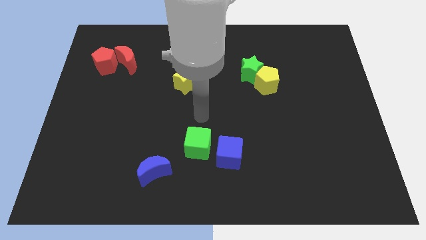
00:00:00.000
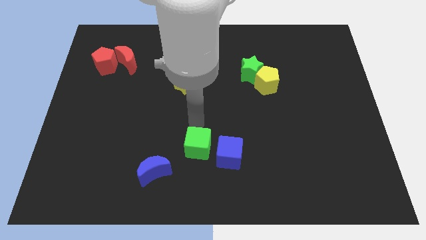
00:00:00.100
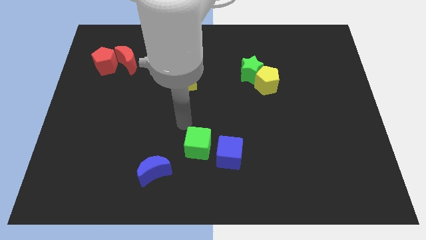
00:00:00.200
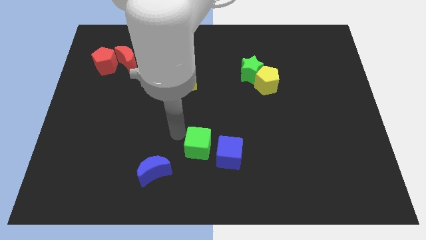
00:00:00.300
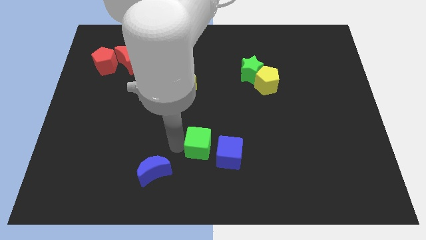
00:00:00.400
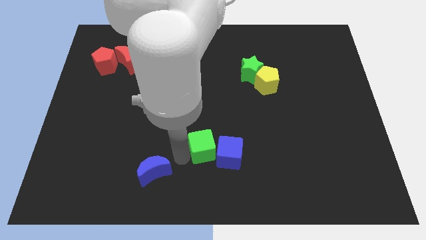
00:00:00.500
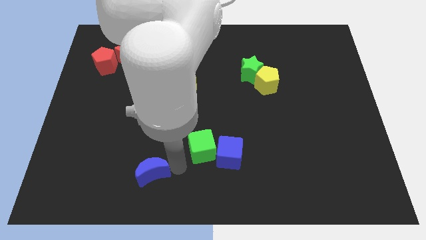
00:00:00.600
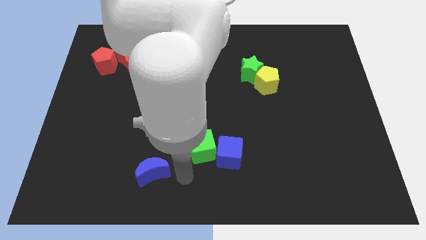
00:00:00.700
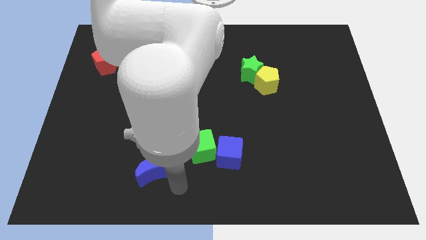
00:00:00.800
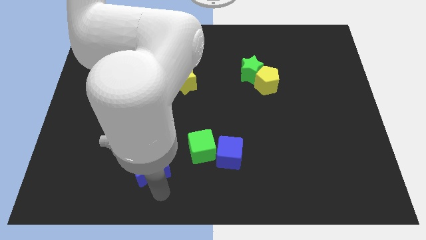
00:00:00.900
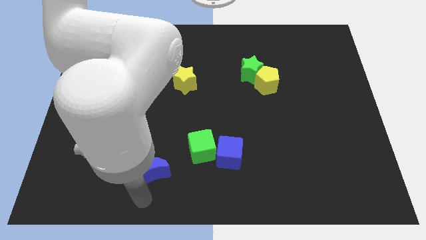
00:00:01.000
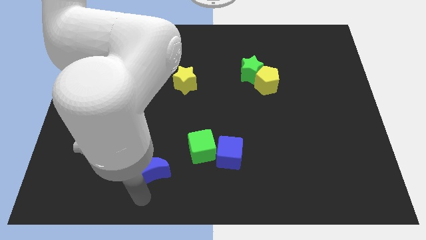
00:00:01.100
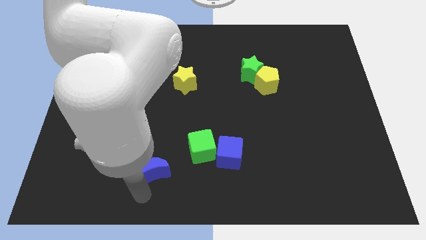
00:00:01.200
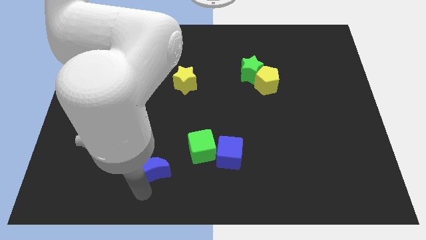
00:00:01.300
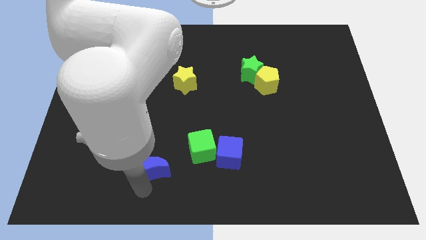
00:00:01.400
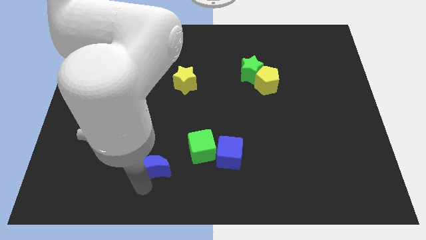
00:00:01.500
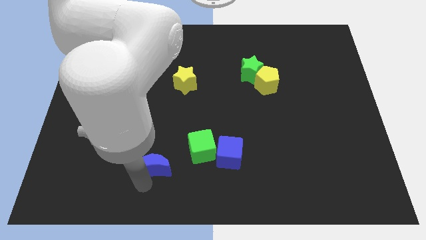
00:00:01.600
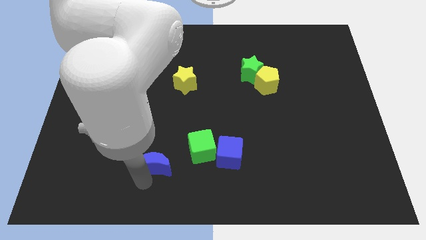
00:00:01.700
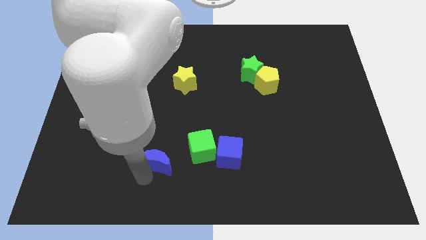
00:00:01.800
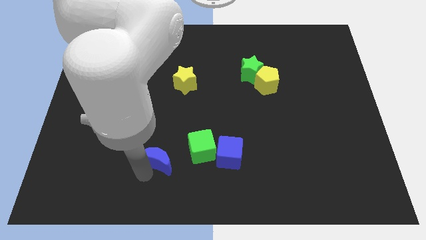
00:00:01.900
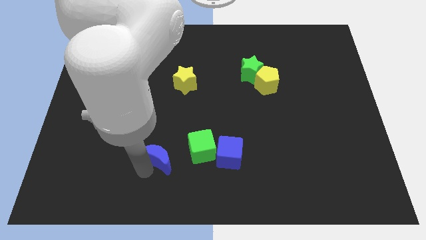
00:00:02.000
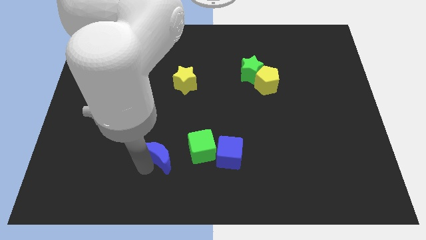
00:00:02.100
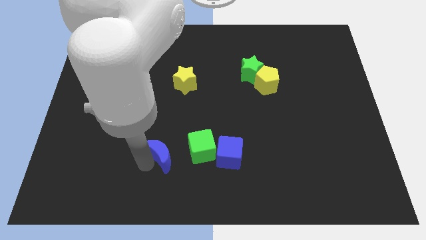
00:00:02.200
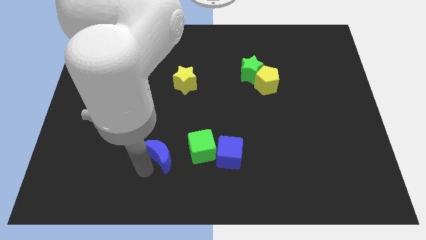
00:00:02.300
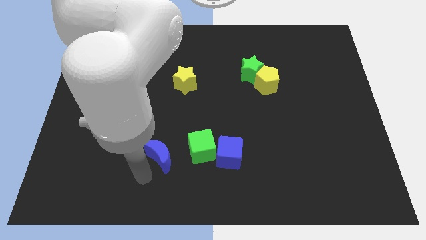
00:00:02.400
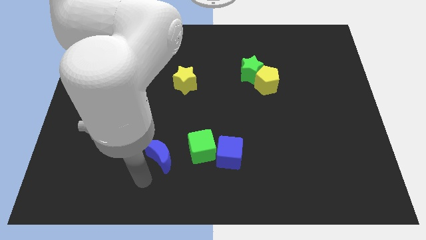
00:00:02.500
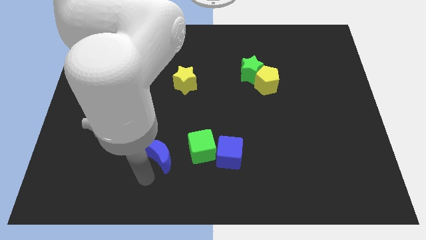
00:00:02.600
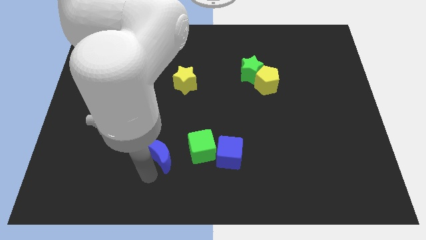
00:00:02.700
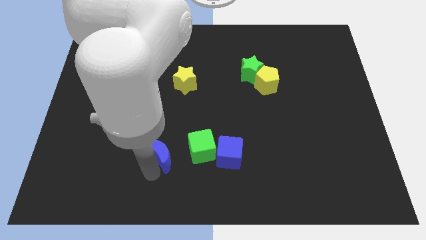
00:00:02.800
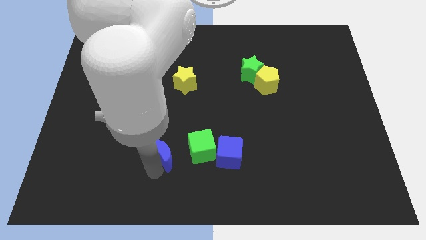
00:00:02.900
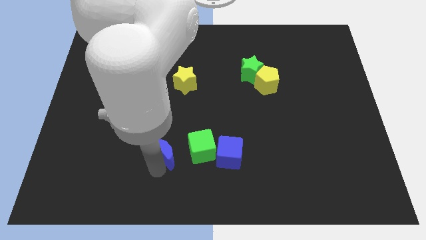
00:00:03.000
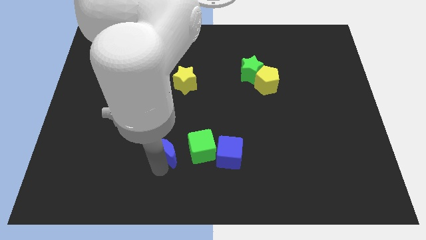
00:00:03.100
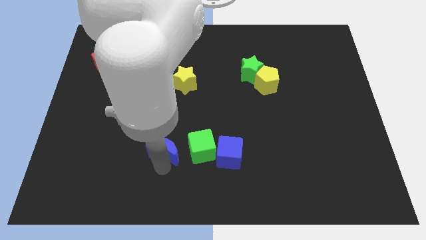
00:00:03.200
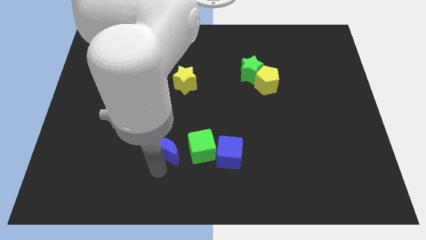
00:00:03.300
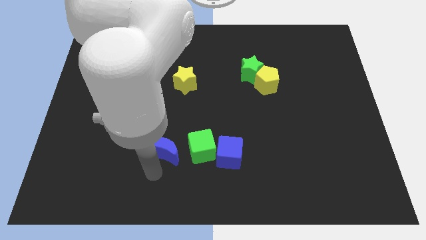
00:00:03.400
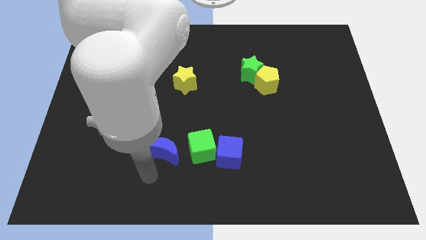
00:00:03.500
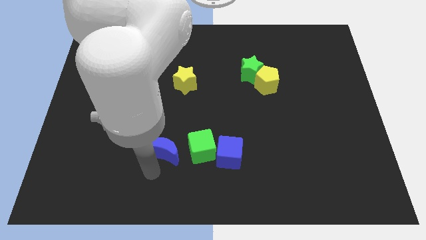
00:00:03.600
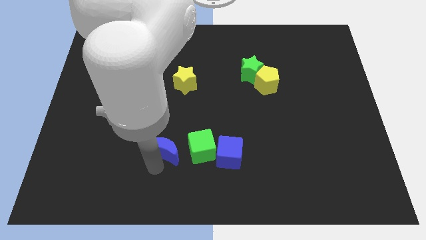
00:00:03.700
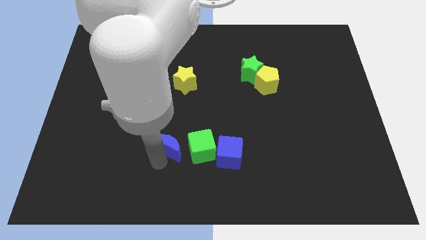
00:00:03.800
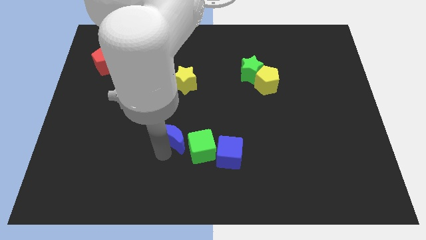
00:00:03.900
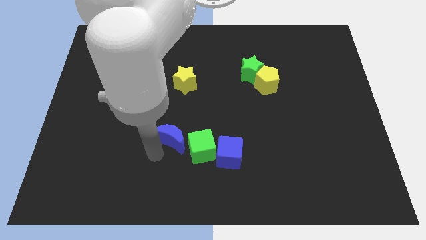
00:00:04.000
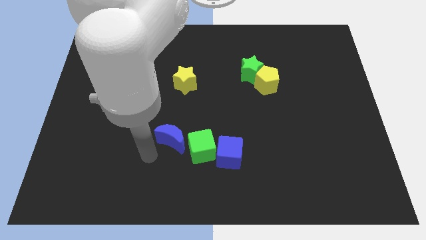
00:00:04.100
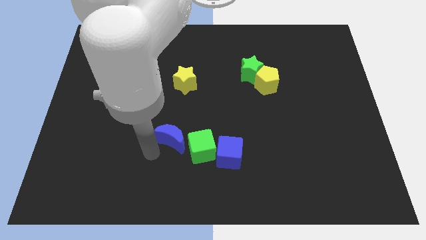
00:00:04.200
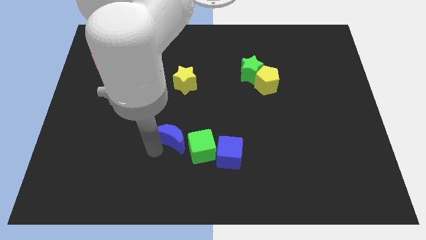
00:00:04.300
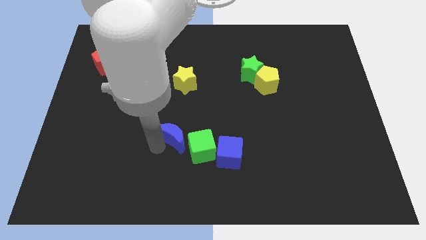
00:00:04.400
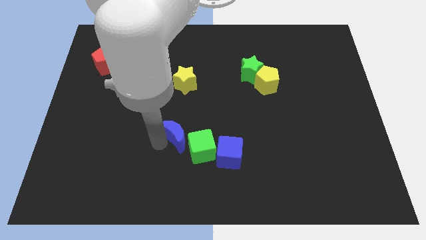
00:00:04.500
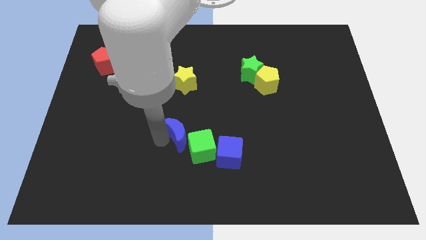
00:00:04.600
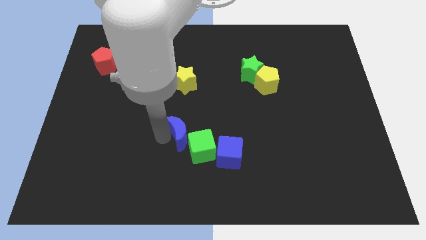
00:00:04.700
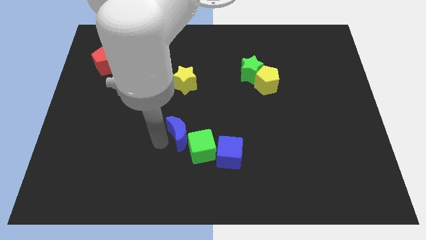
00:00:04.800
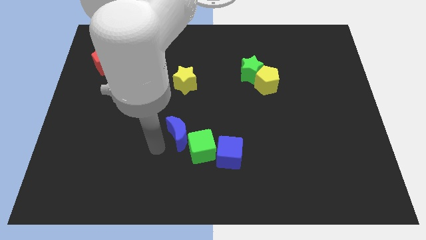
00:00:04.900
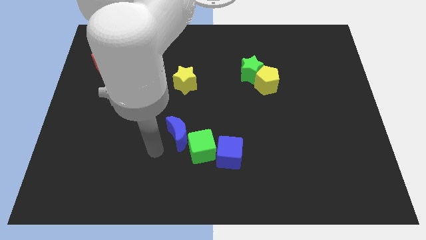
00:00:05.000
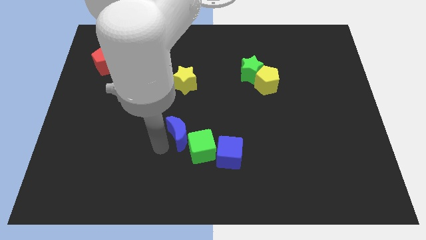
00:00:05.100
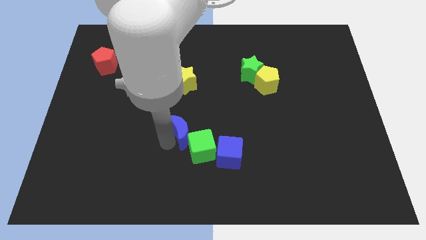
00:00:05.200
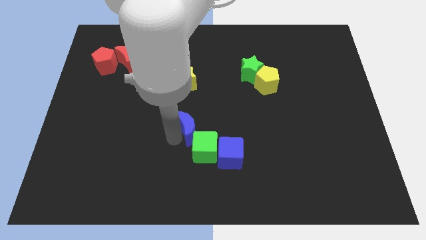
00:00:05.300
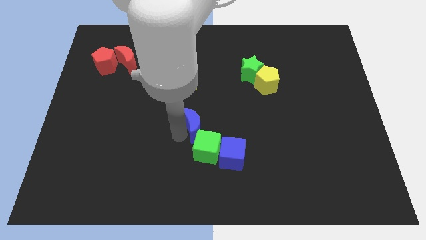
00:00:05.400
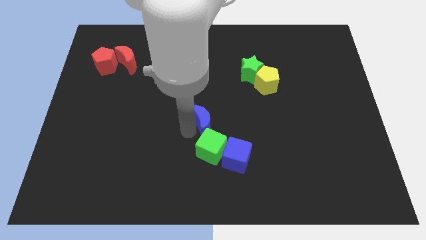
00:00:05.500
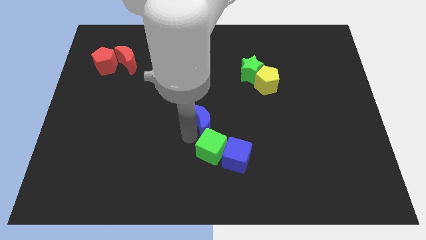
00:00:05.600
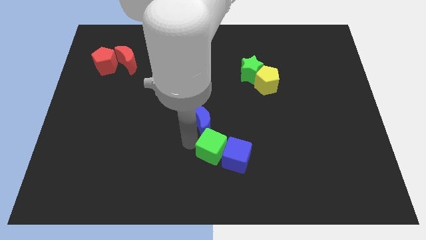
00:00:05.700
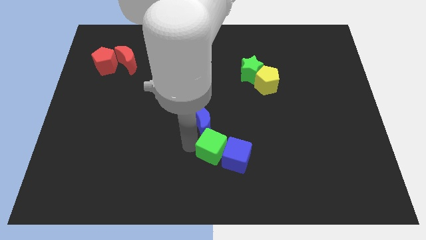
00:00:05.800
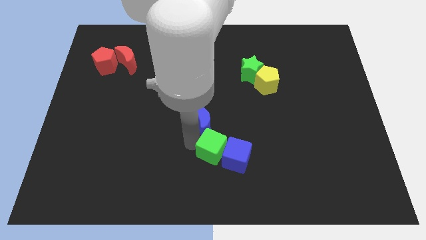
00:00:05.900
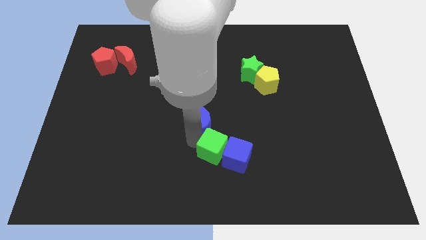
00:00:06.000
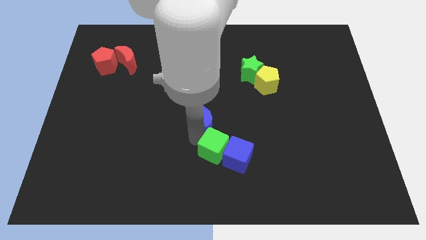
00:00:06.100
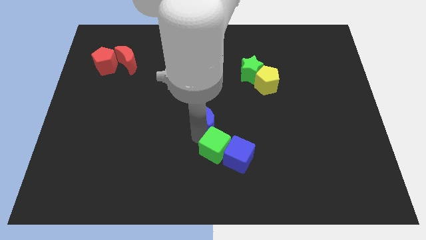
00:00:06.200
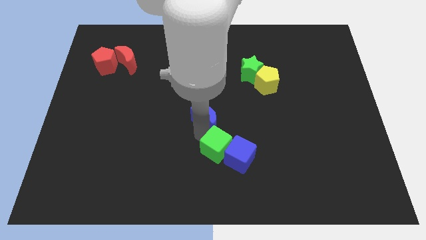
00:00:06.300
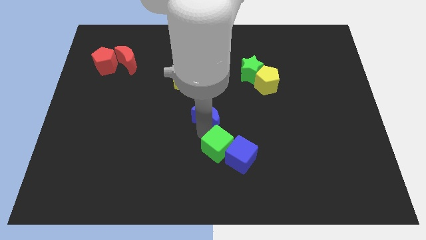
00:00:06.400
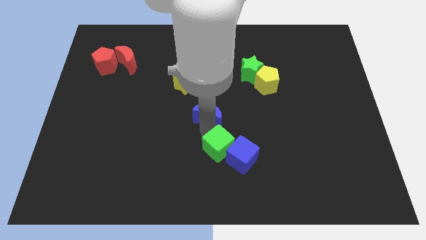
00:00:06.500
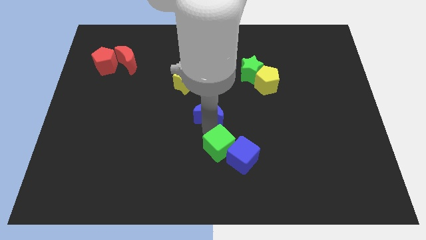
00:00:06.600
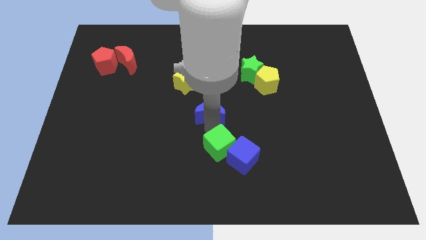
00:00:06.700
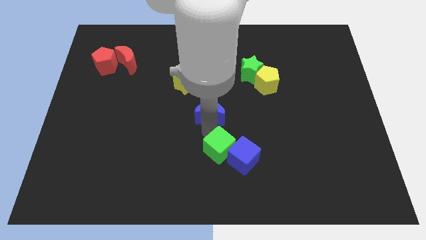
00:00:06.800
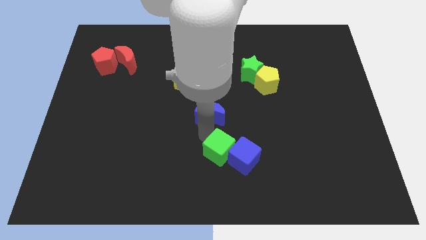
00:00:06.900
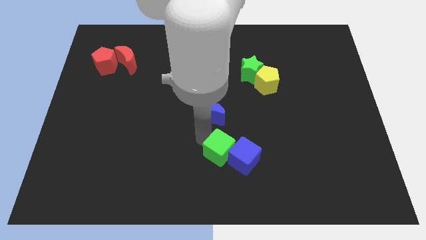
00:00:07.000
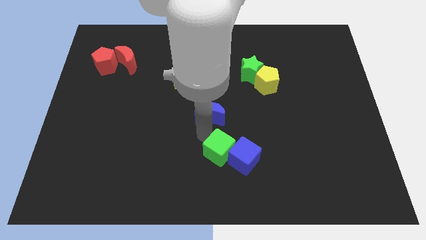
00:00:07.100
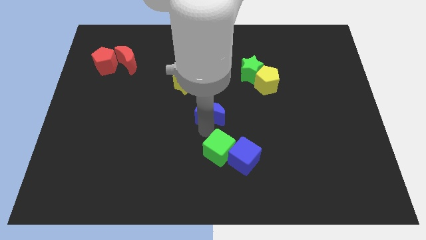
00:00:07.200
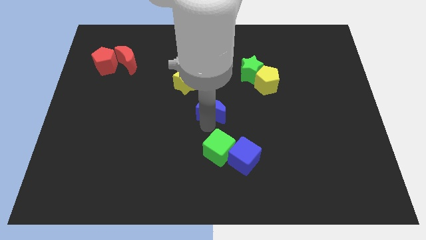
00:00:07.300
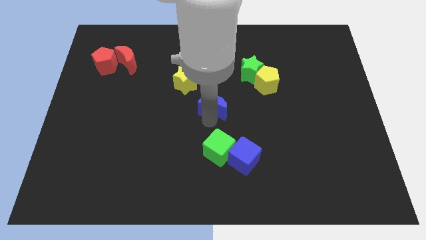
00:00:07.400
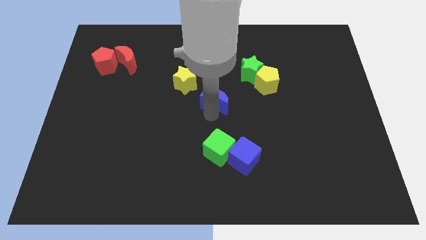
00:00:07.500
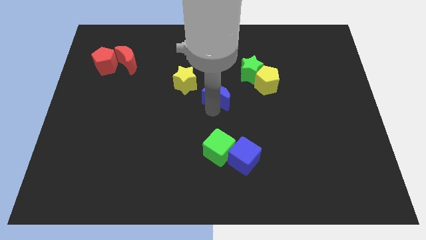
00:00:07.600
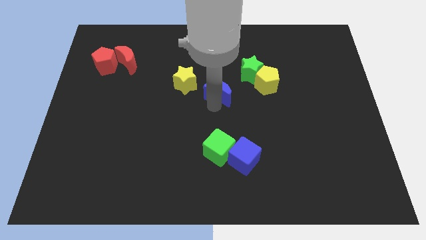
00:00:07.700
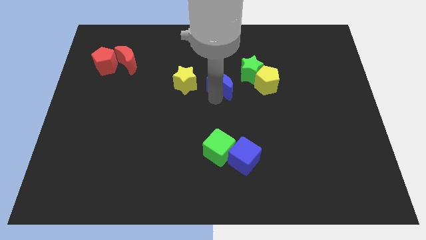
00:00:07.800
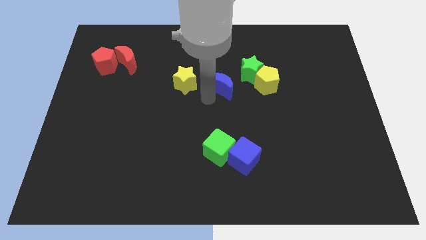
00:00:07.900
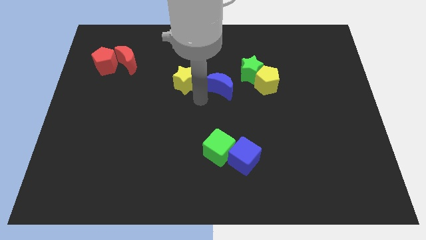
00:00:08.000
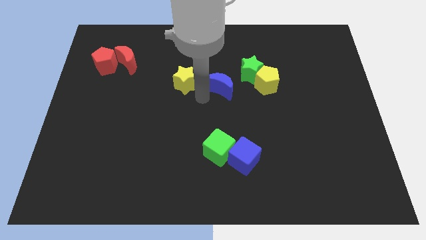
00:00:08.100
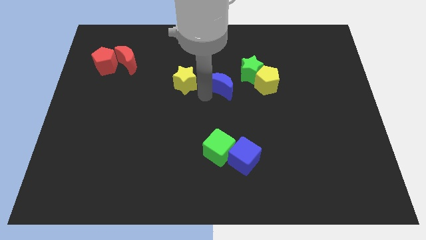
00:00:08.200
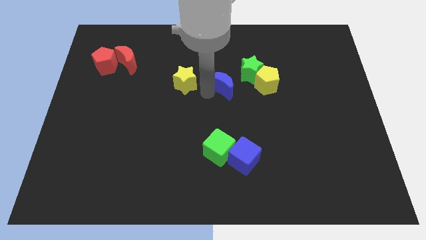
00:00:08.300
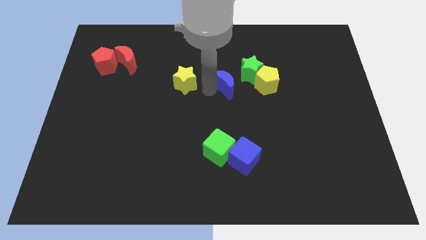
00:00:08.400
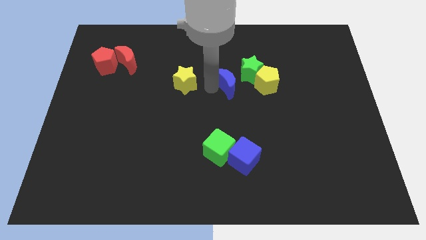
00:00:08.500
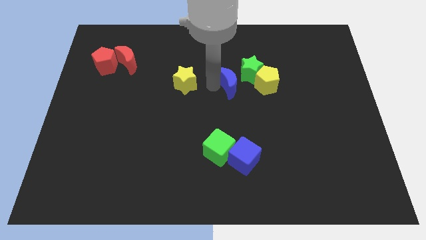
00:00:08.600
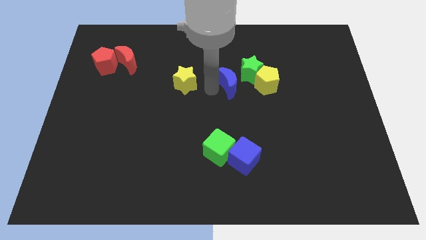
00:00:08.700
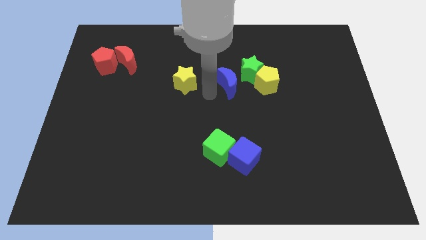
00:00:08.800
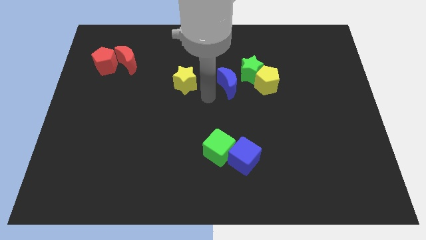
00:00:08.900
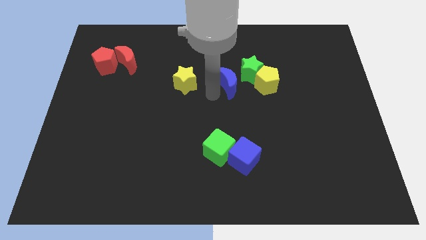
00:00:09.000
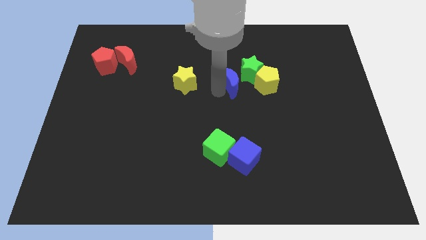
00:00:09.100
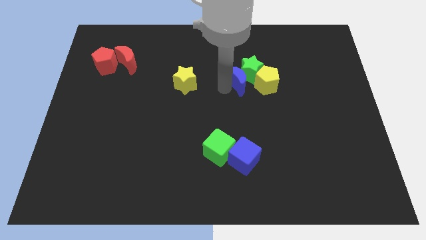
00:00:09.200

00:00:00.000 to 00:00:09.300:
put the blue moon next to the green star
